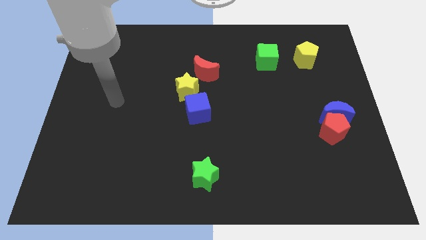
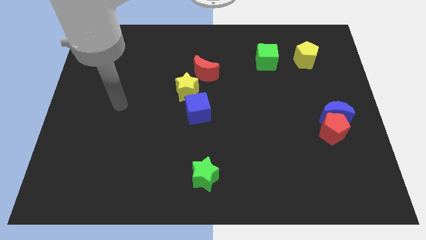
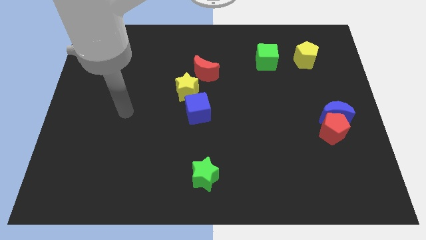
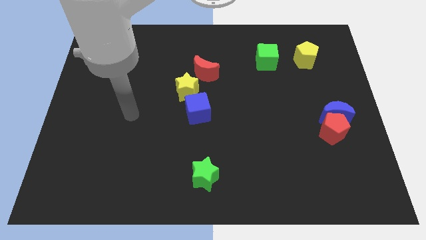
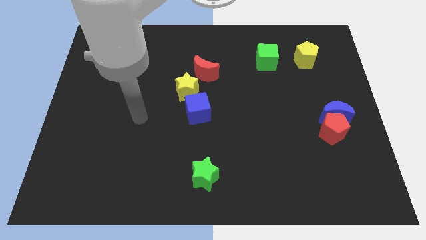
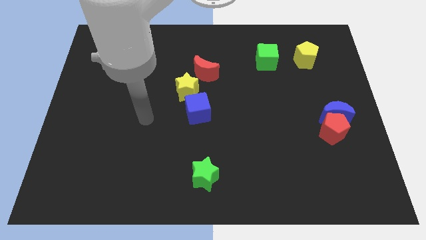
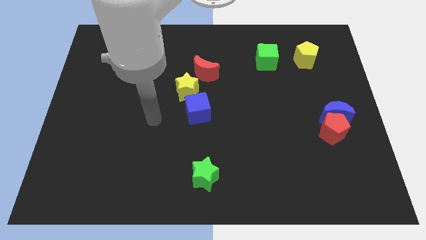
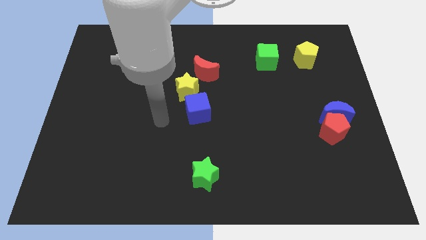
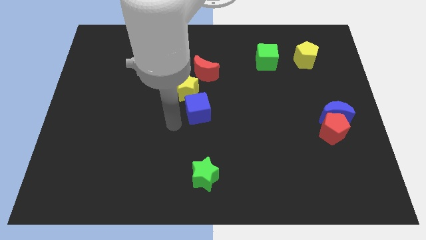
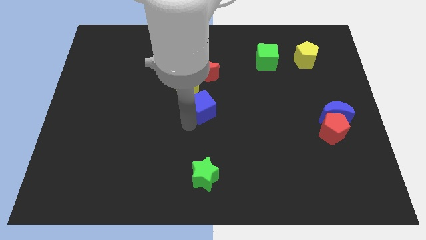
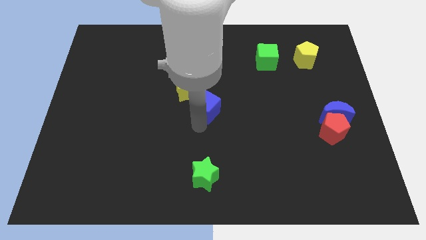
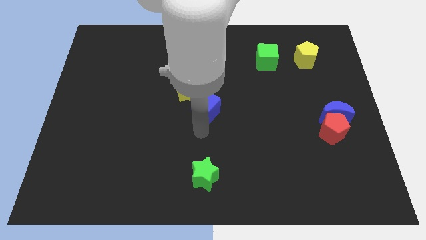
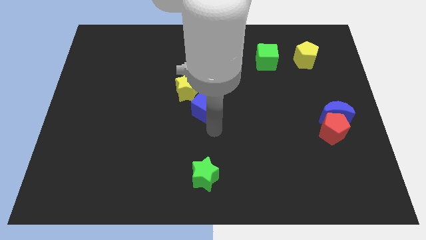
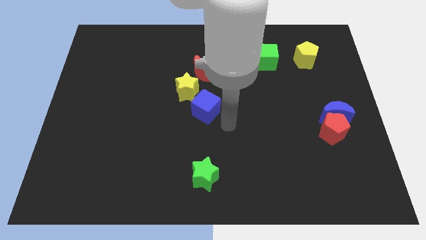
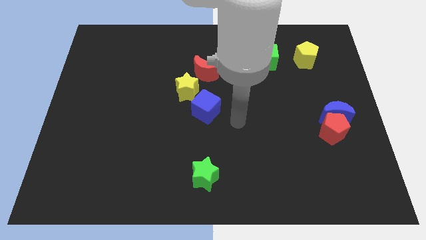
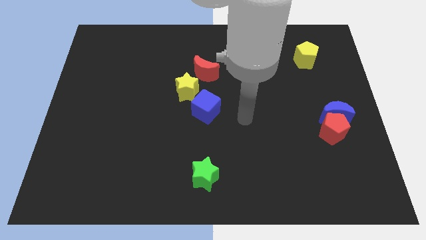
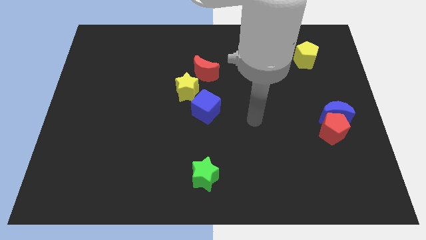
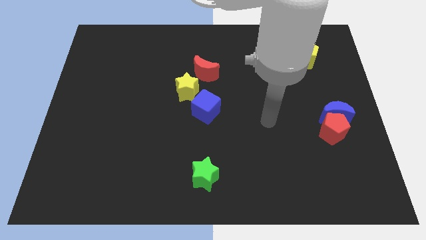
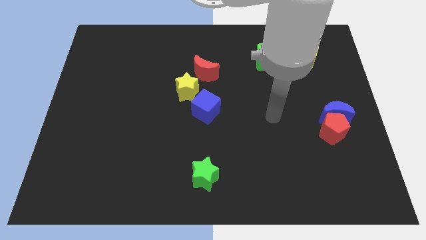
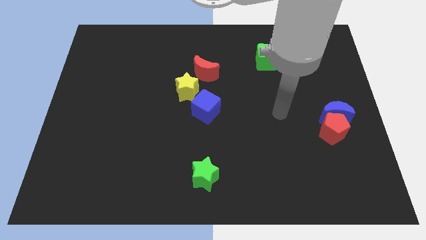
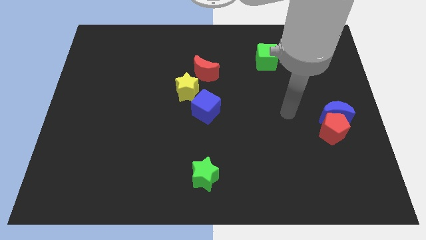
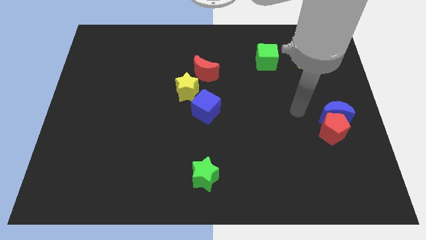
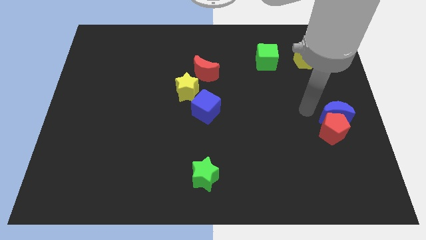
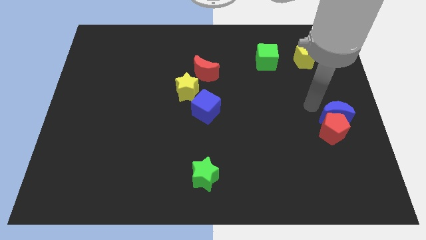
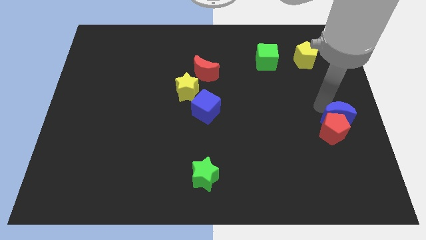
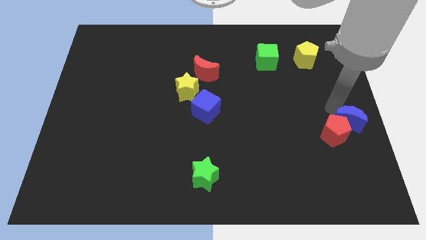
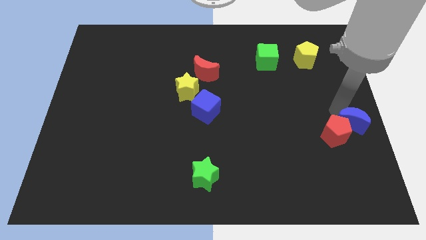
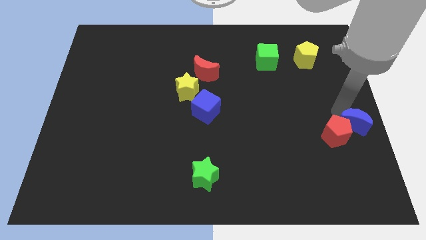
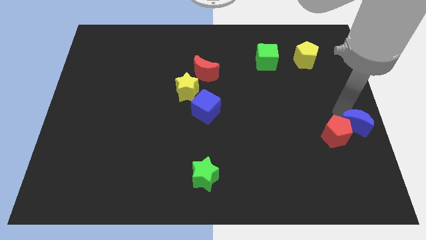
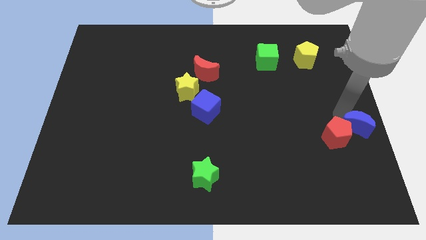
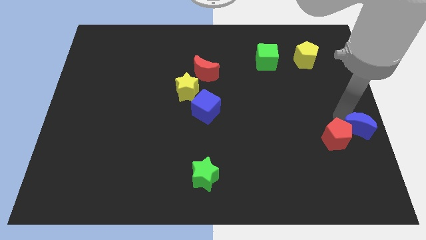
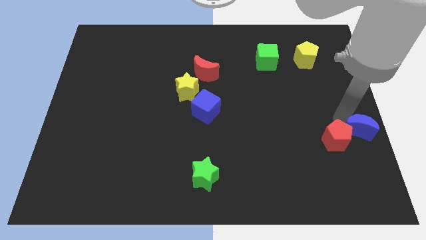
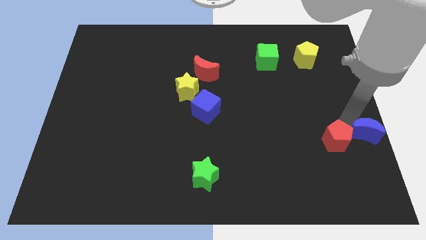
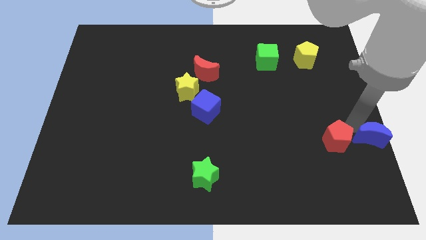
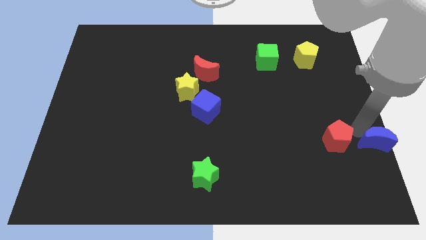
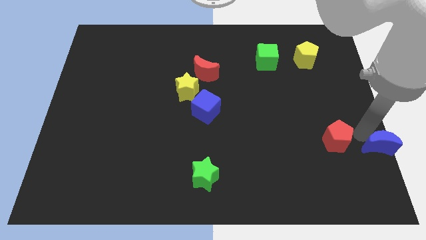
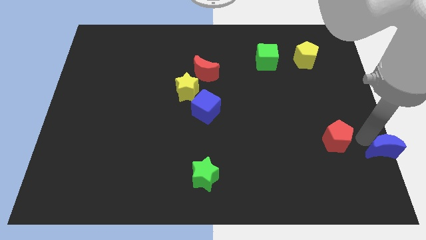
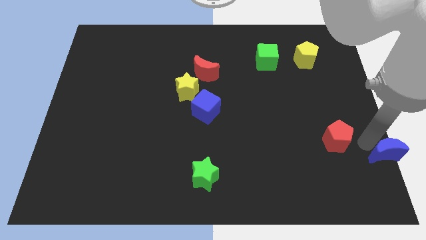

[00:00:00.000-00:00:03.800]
pull the red pentagon apart from the blue moon

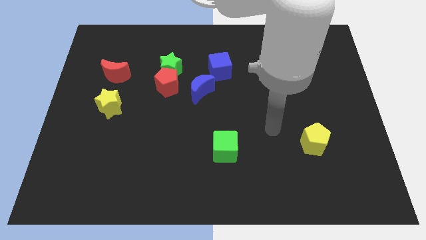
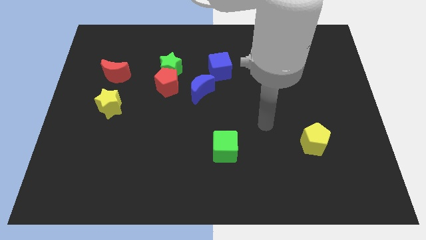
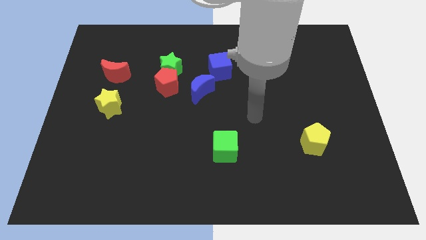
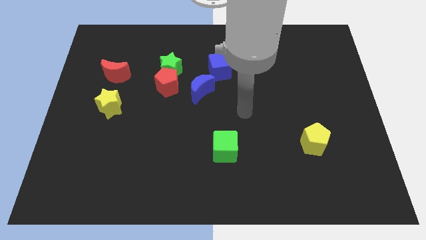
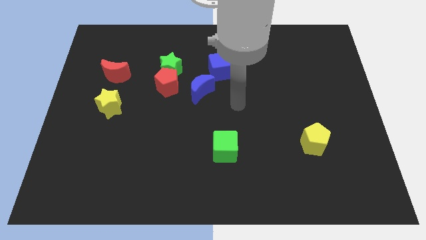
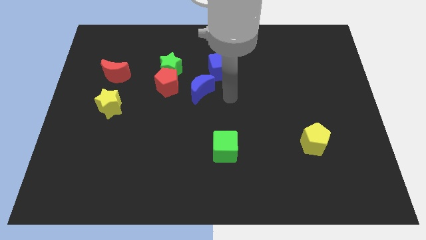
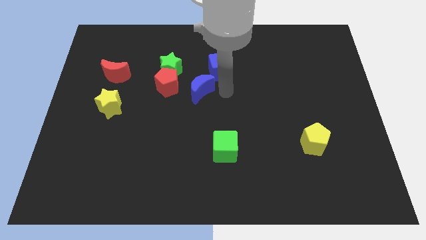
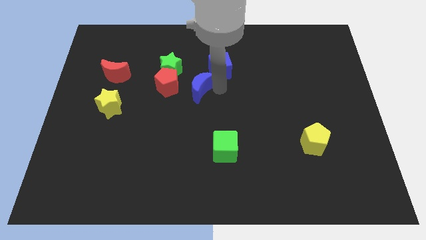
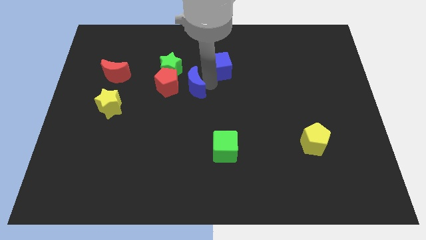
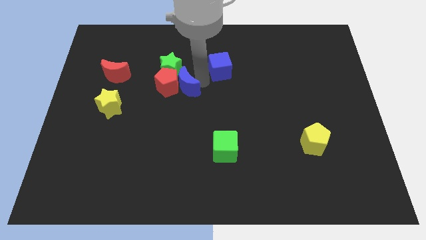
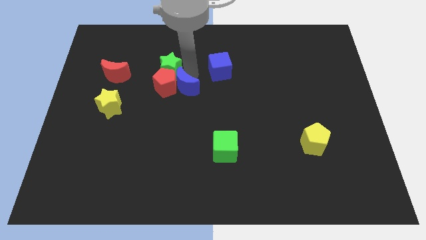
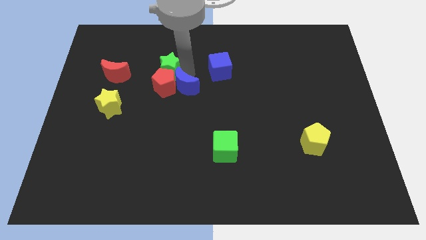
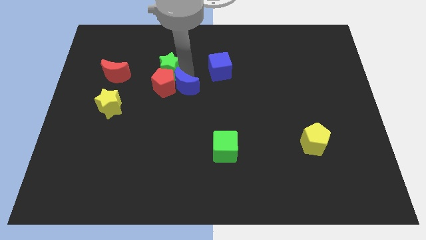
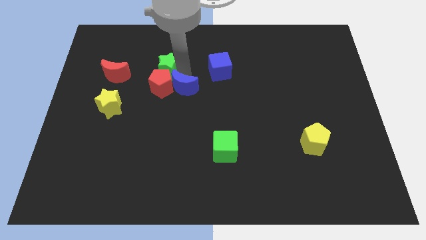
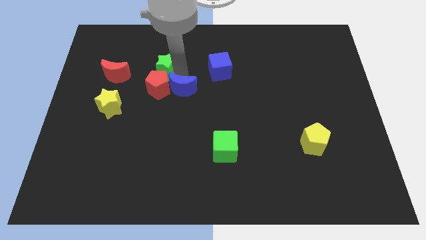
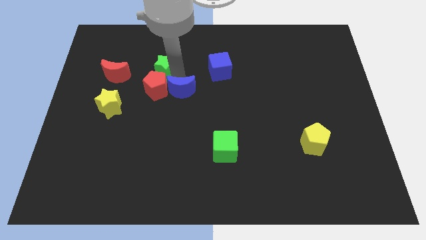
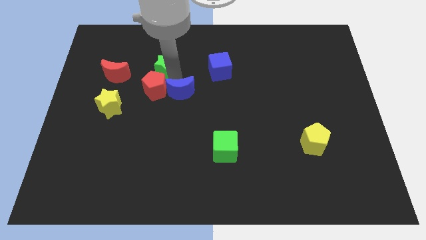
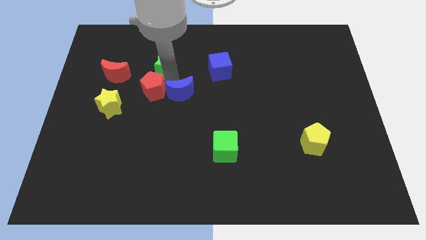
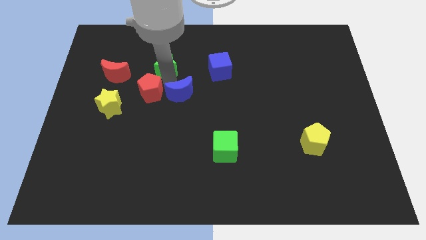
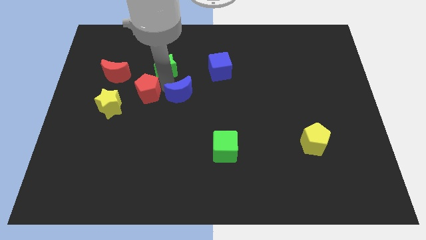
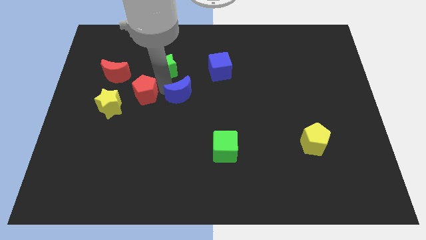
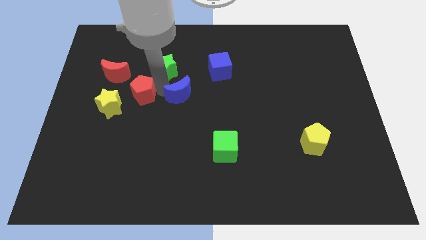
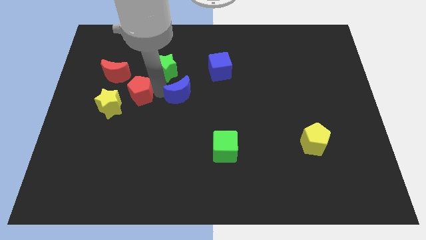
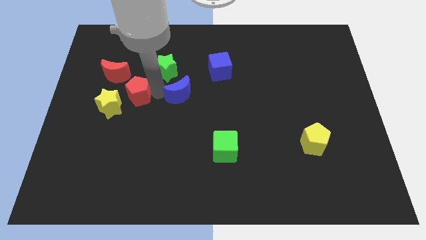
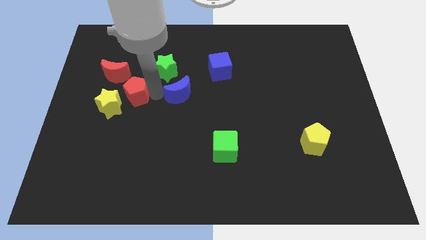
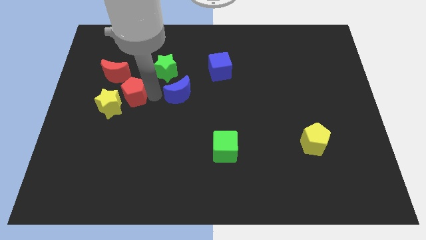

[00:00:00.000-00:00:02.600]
separate the red pentagon from the green star and blue moon

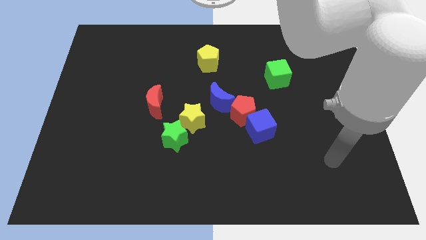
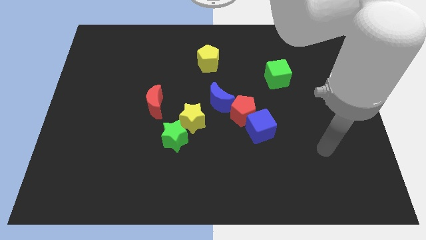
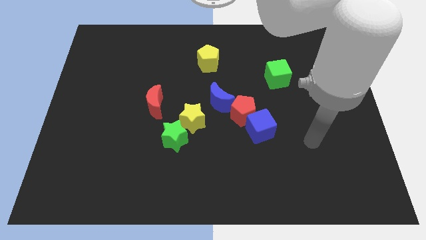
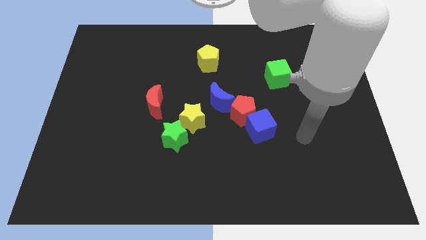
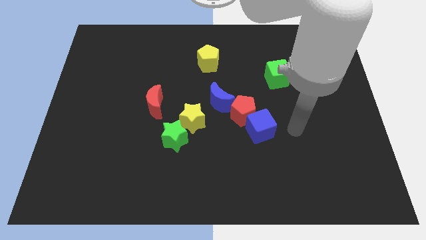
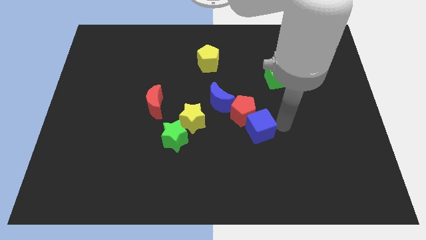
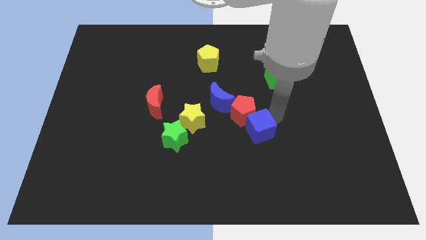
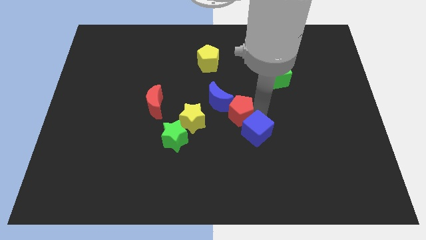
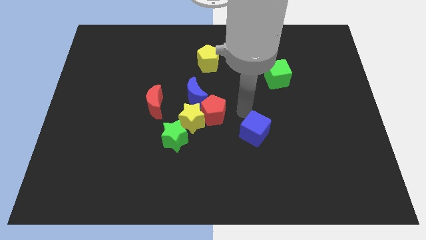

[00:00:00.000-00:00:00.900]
separate the blue cube from the red pentagon

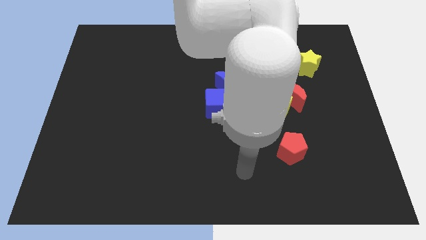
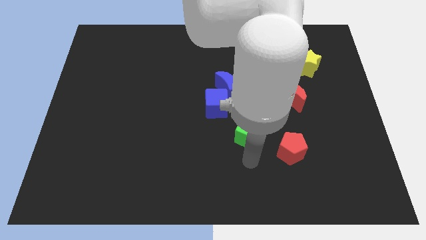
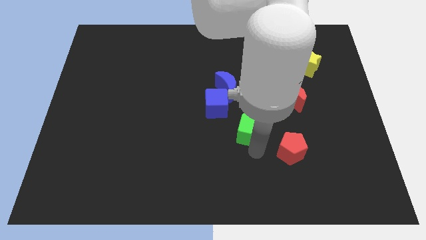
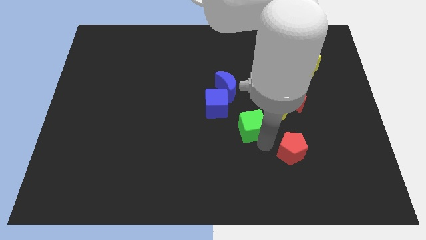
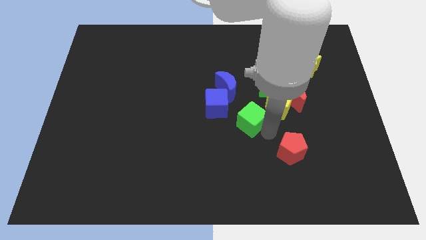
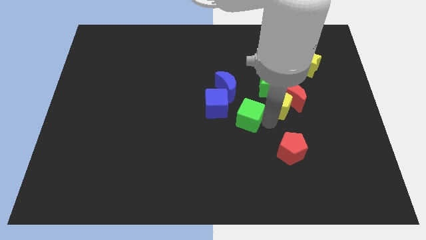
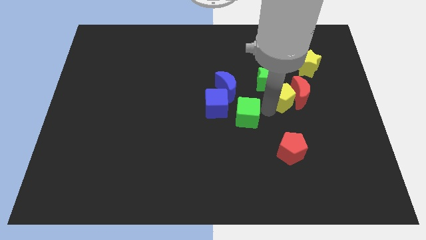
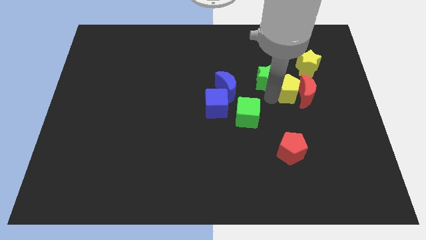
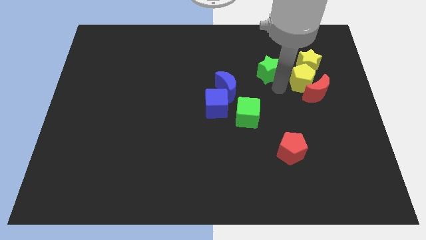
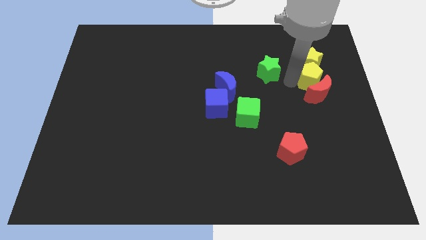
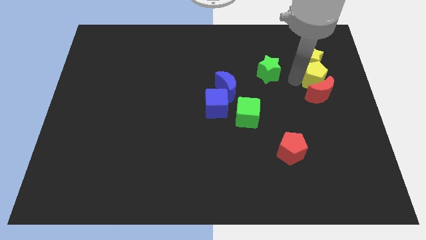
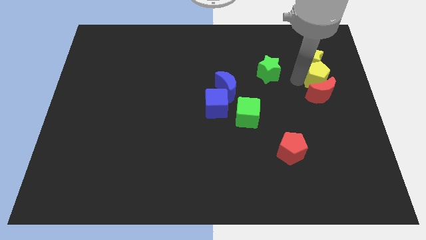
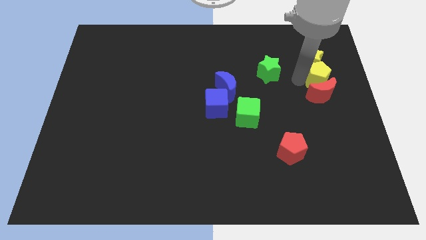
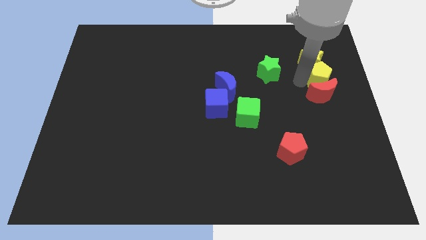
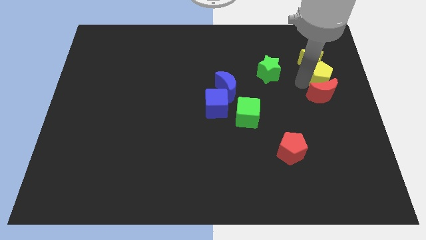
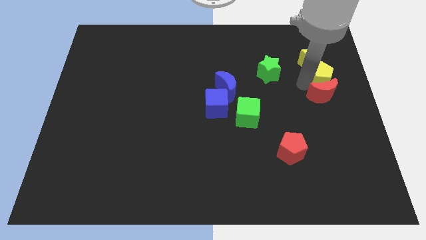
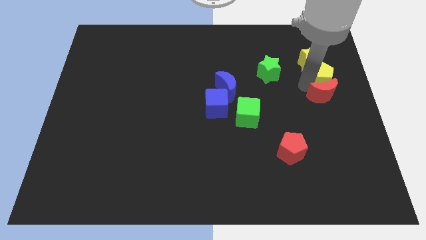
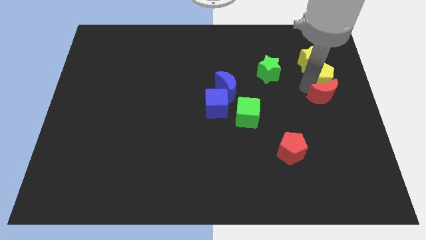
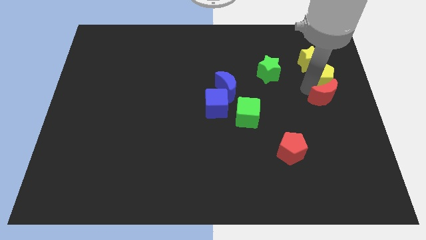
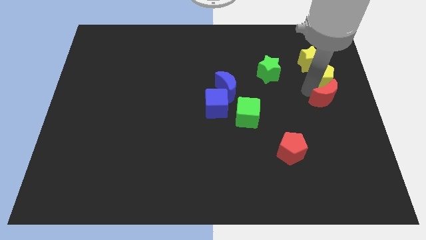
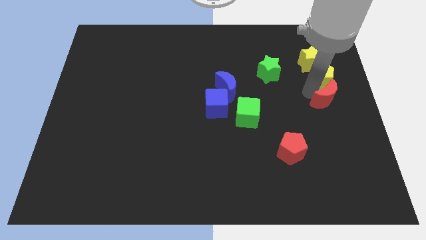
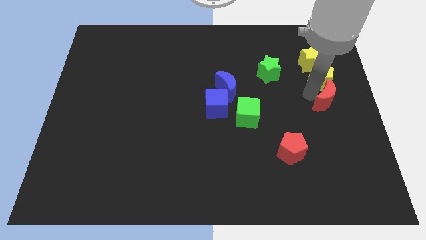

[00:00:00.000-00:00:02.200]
separate the red moon from the yellow pentagon and green star
